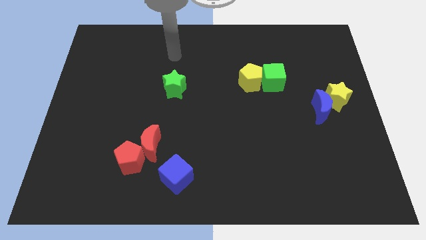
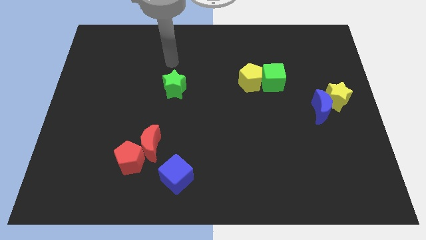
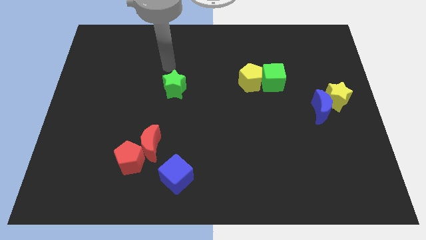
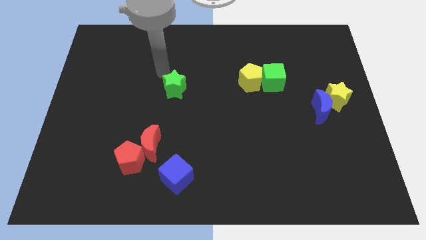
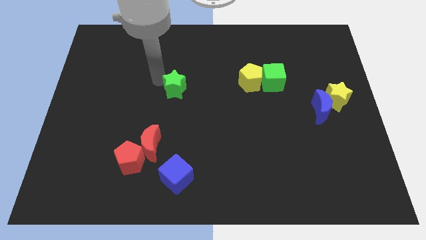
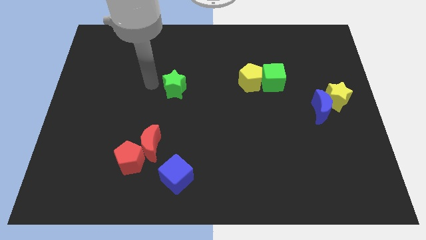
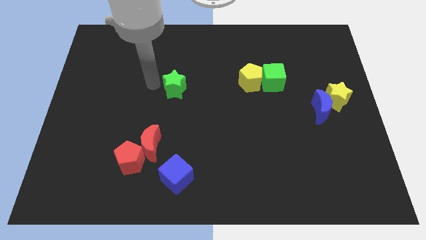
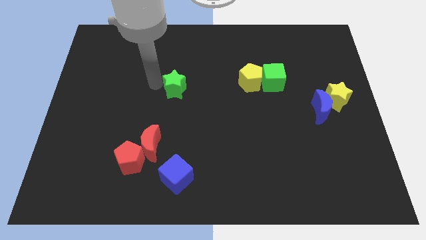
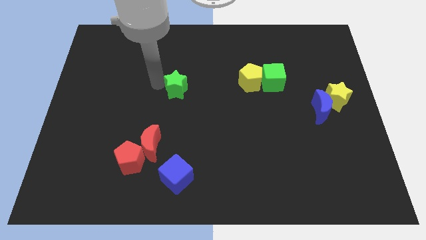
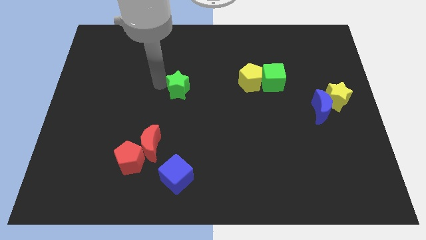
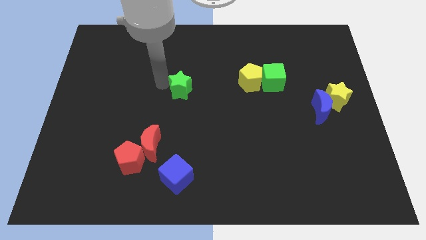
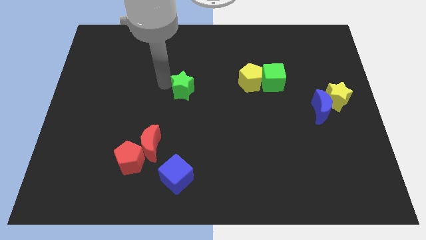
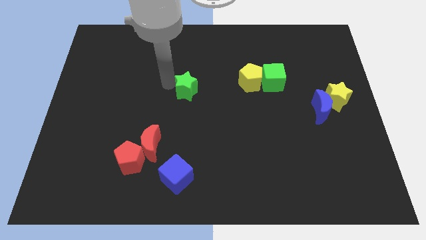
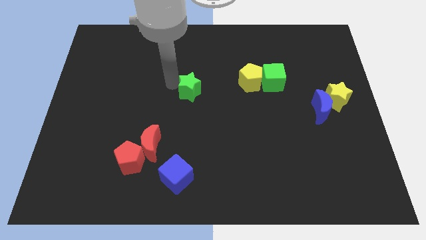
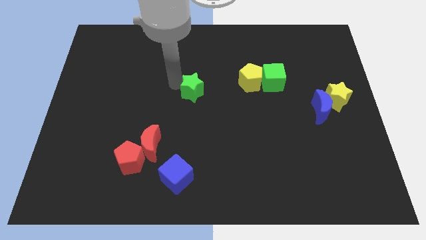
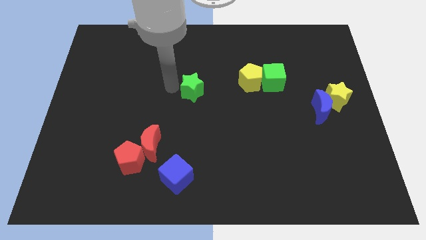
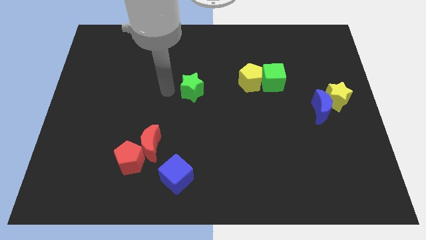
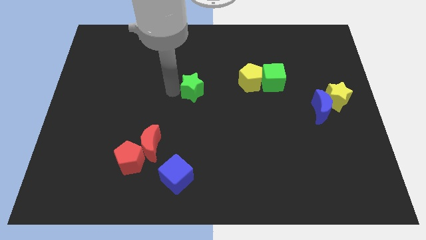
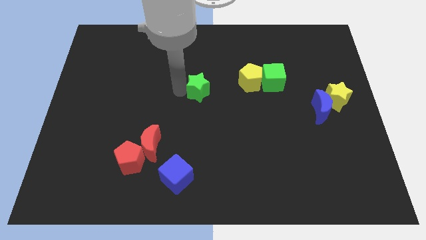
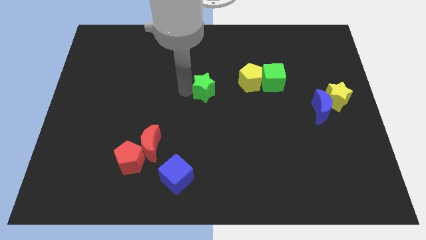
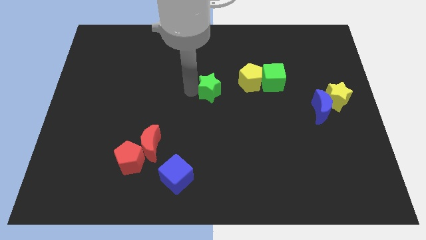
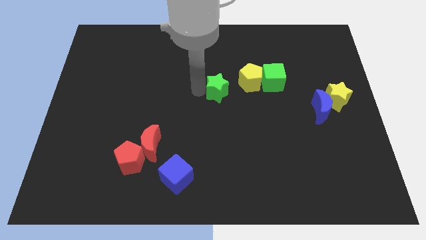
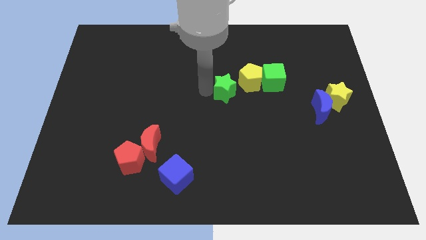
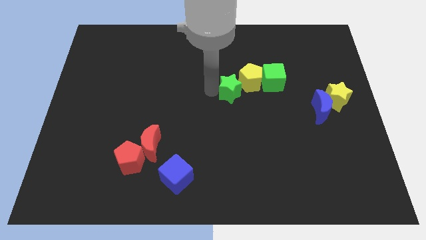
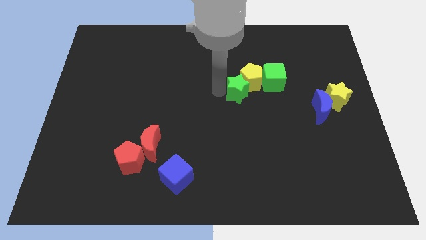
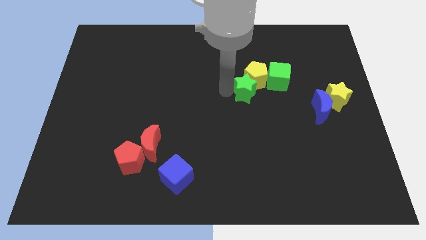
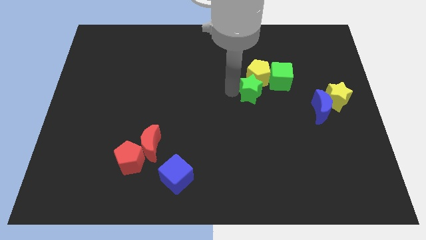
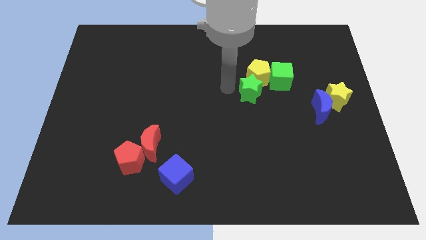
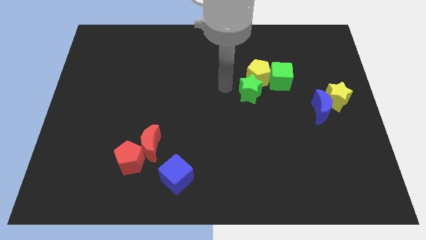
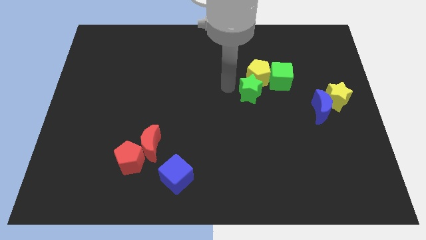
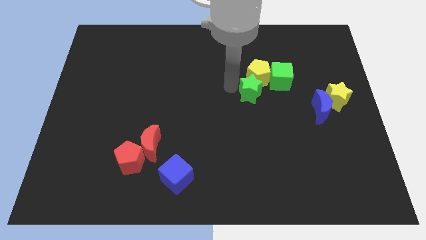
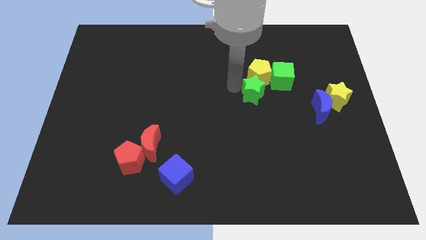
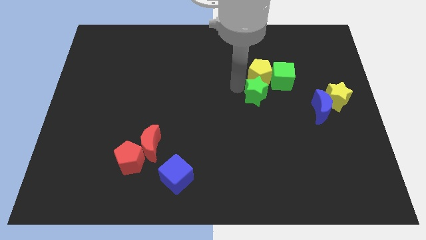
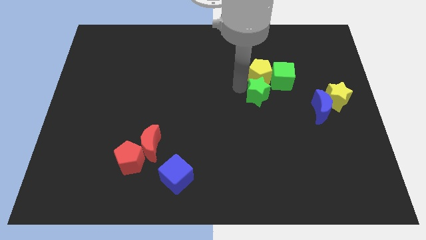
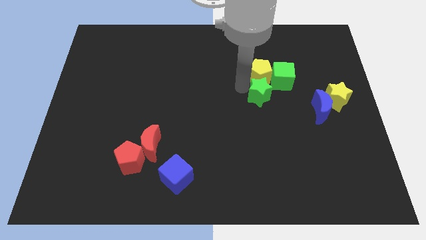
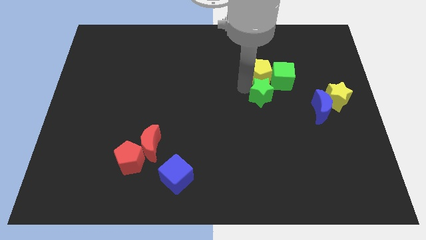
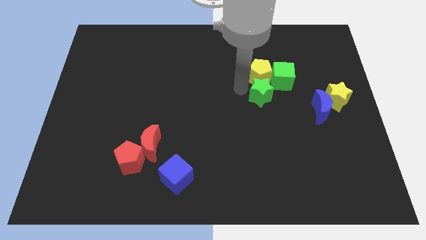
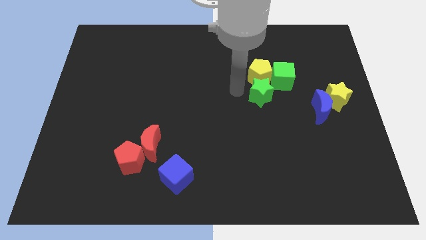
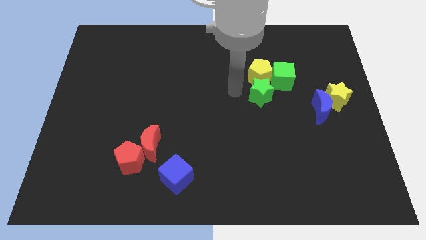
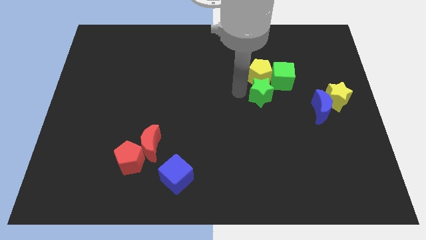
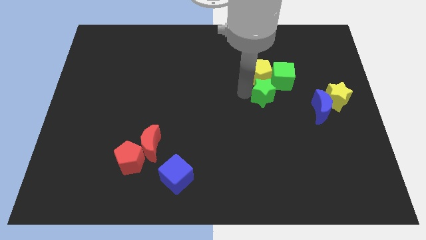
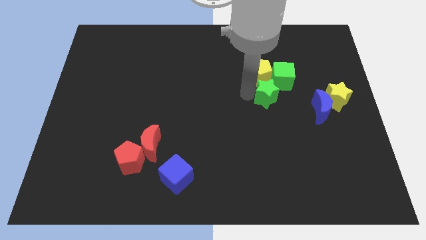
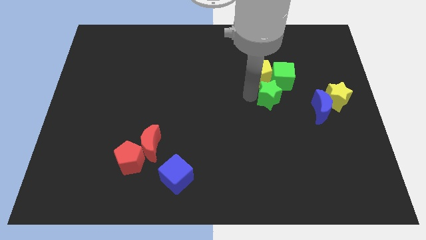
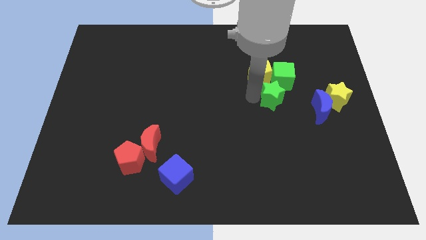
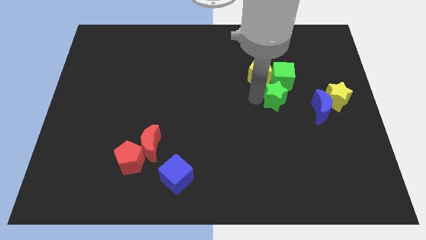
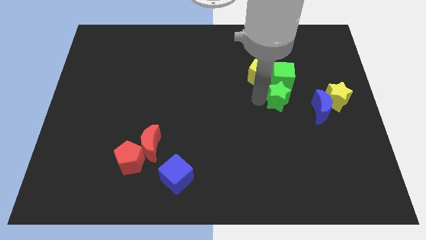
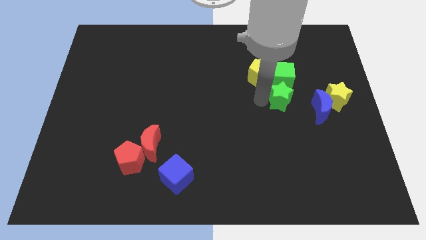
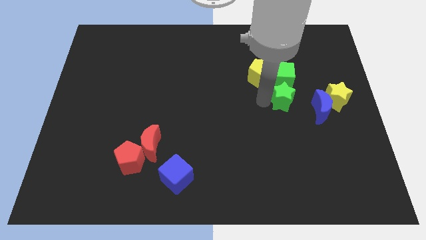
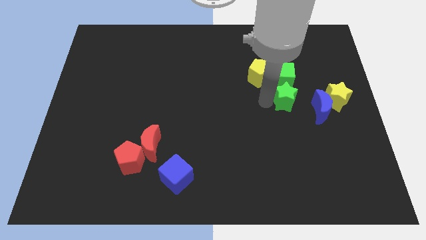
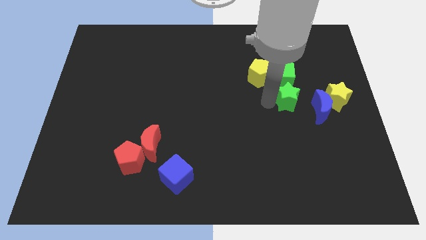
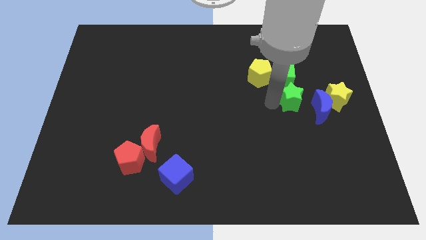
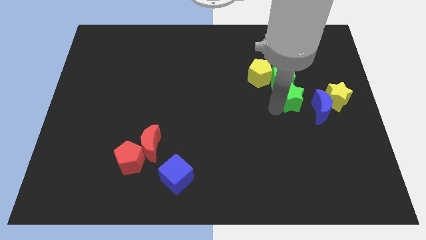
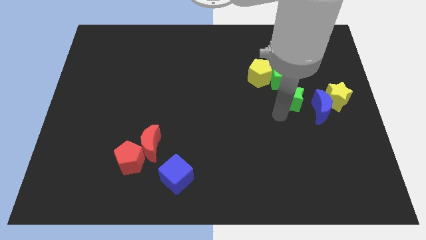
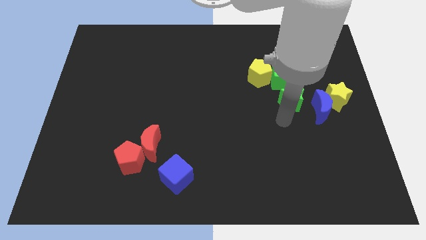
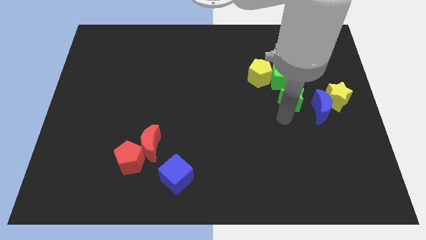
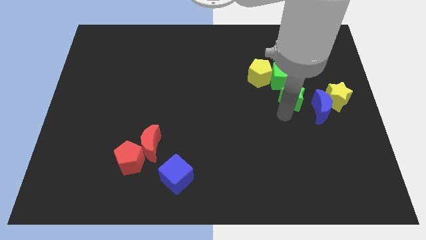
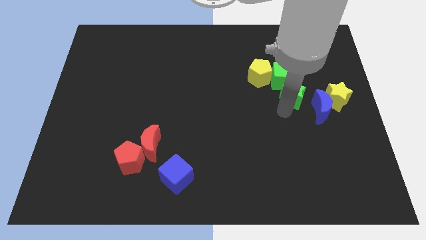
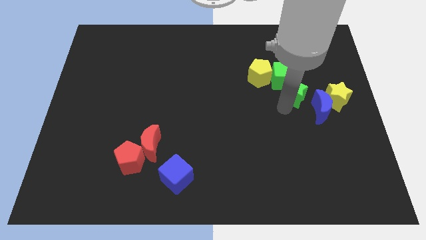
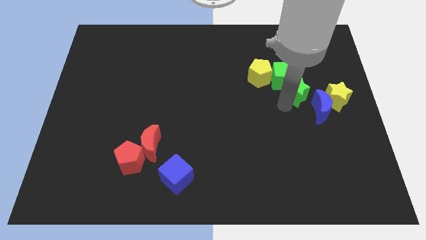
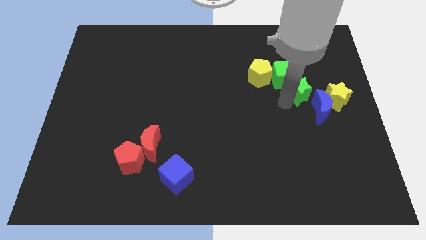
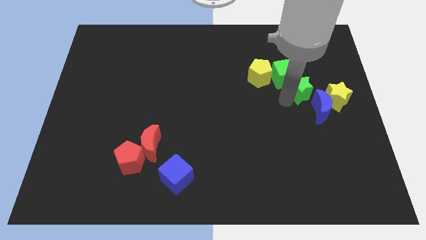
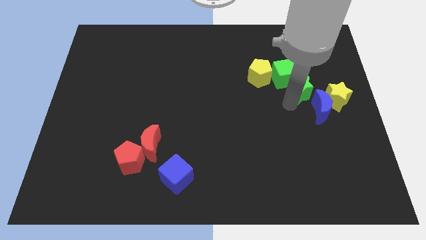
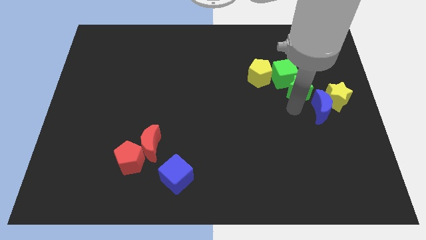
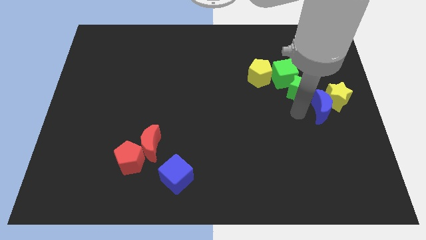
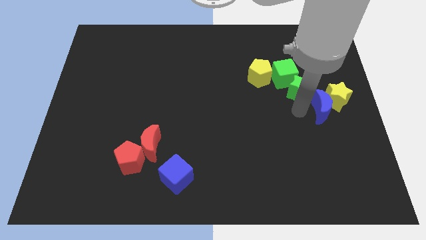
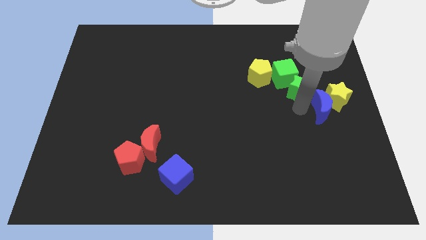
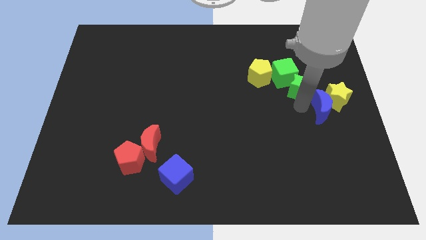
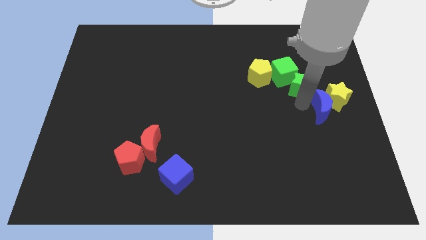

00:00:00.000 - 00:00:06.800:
slide the green star just right of the yellow pentagon

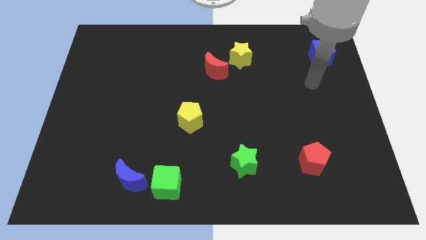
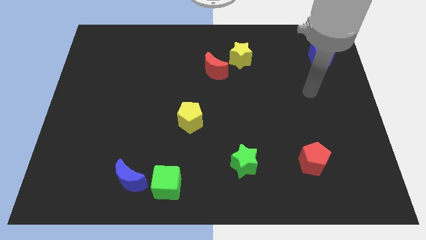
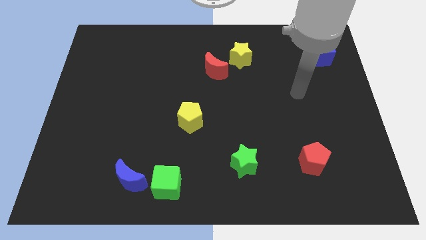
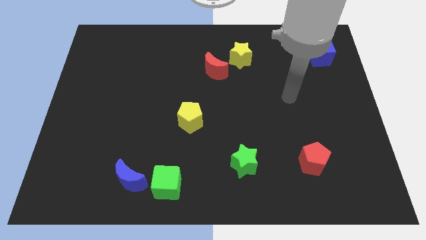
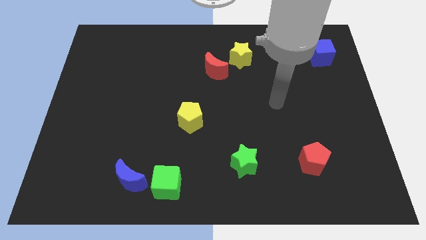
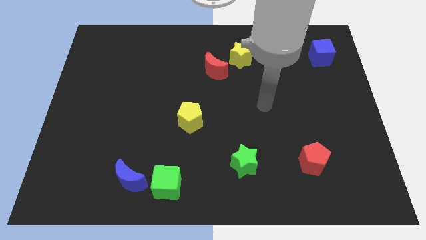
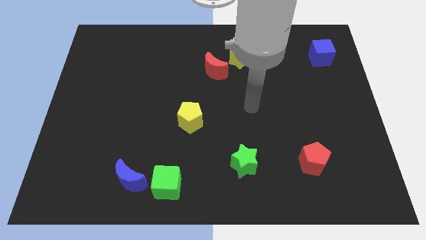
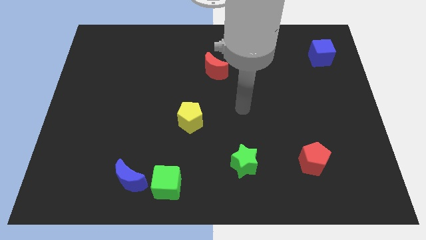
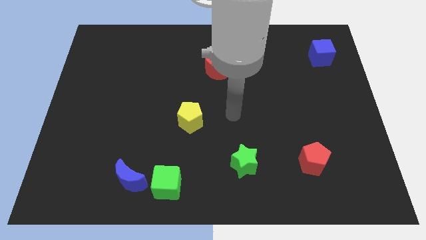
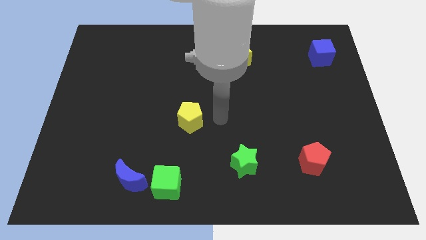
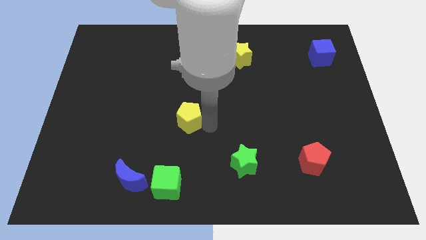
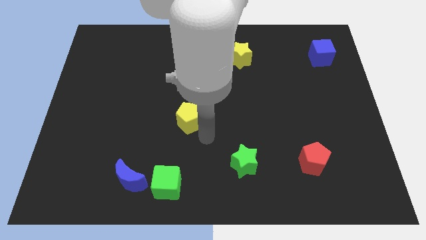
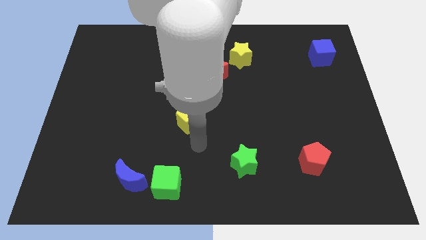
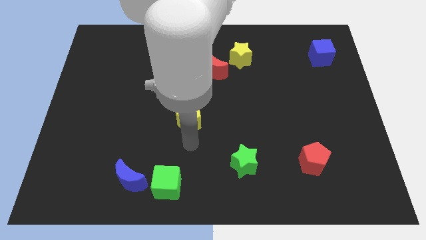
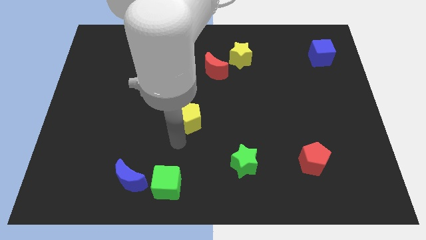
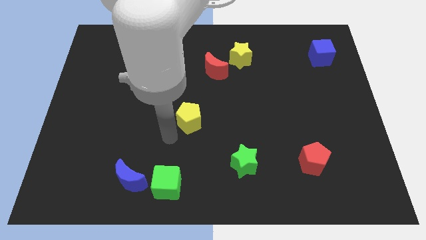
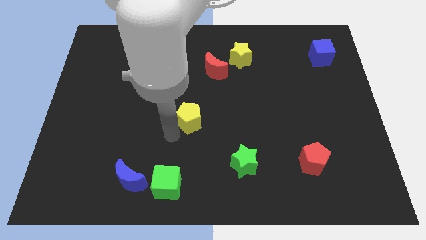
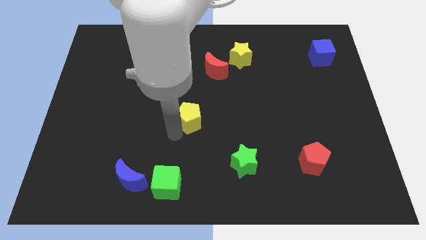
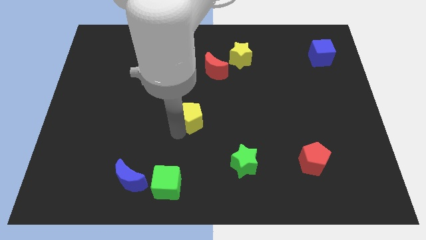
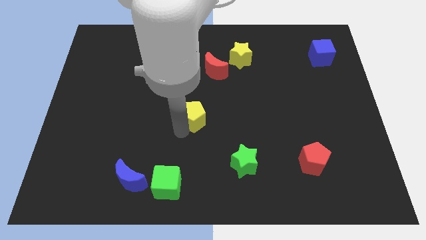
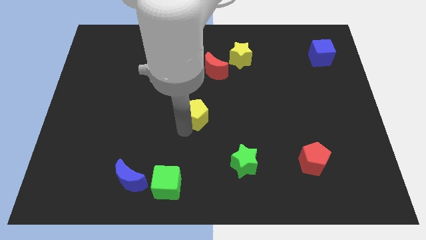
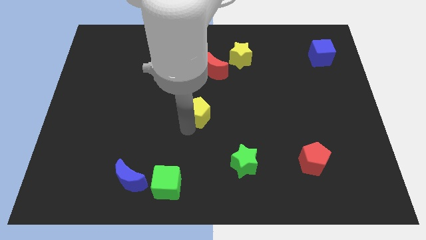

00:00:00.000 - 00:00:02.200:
put the yellow pentagon to the bottom side of the red moon
